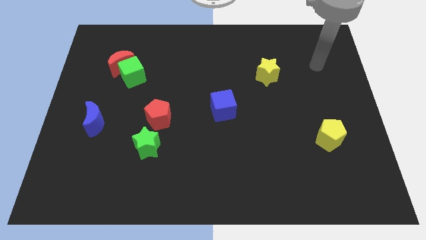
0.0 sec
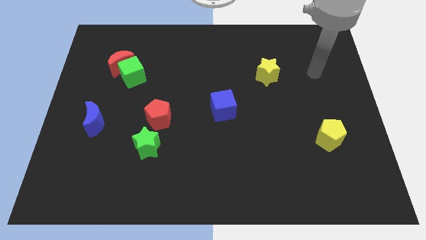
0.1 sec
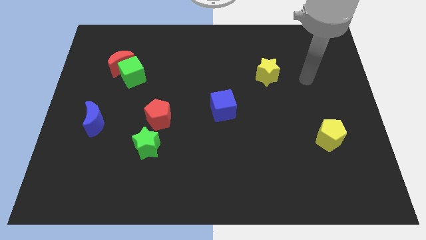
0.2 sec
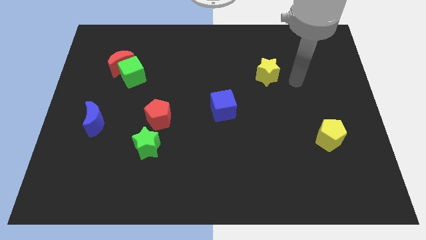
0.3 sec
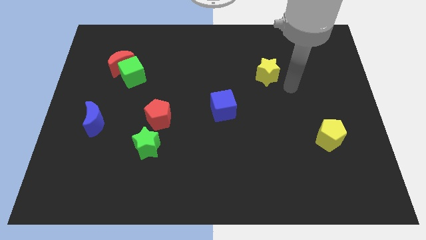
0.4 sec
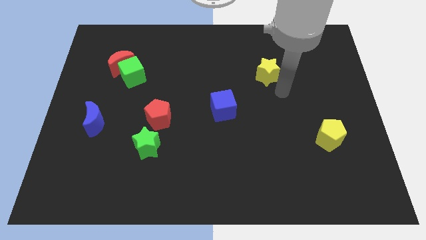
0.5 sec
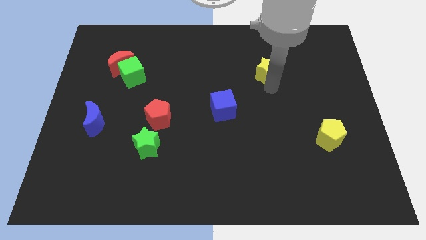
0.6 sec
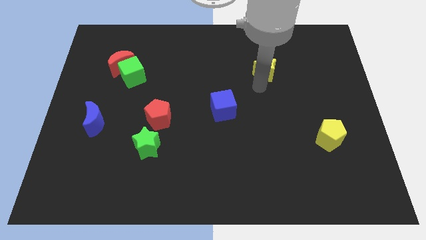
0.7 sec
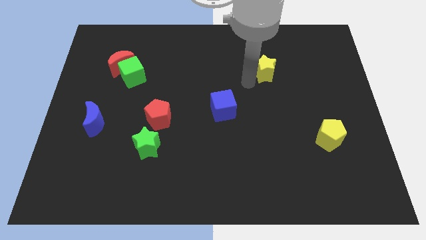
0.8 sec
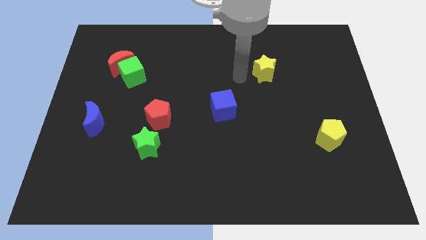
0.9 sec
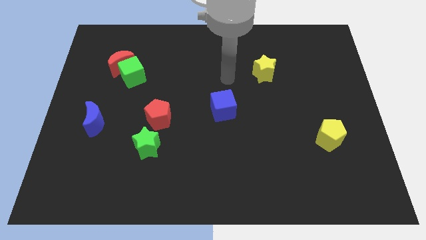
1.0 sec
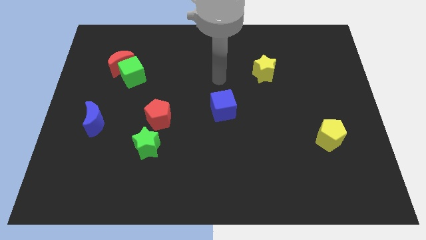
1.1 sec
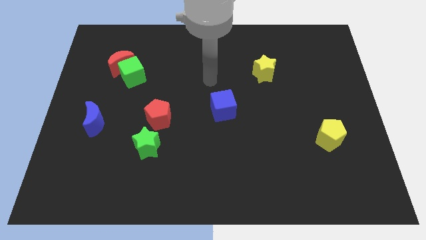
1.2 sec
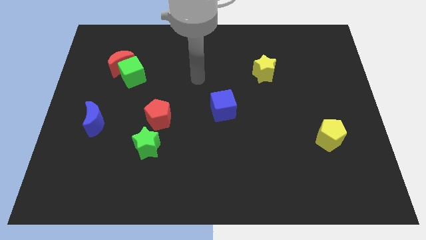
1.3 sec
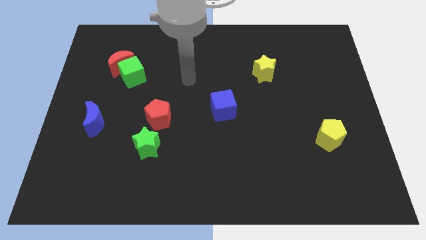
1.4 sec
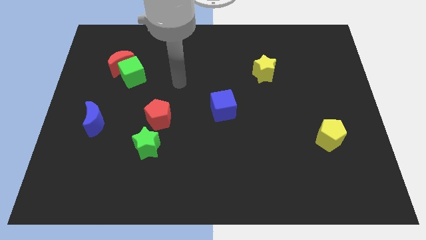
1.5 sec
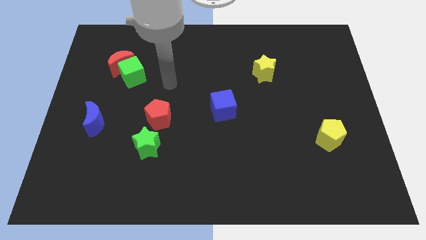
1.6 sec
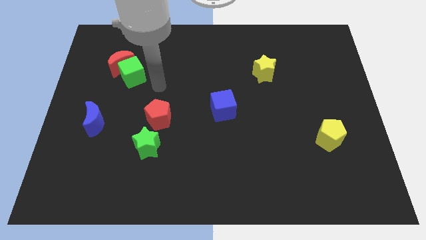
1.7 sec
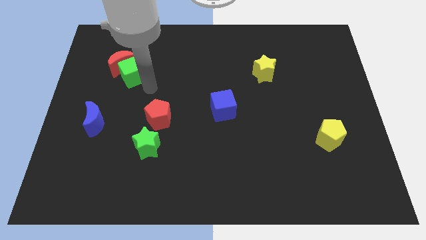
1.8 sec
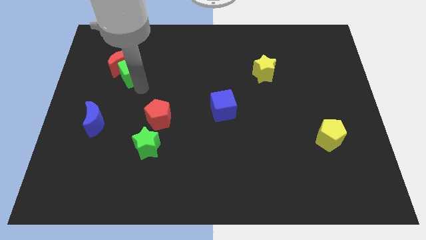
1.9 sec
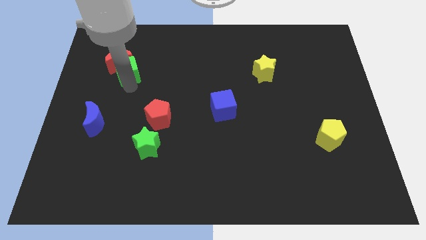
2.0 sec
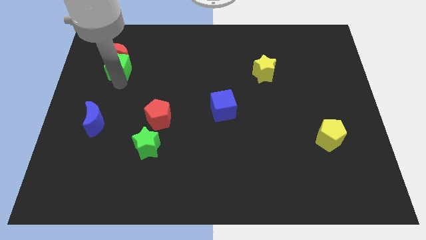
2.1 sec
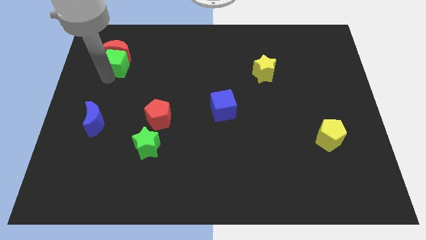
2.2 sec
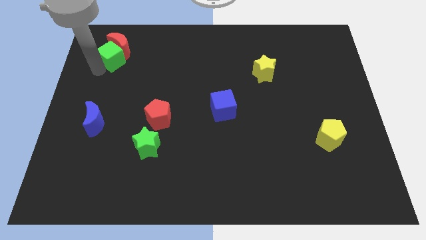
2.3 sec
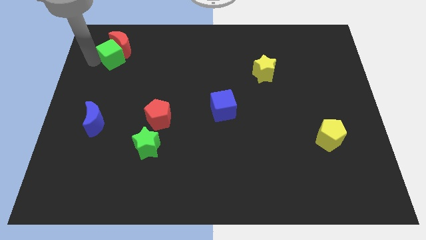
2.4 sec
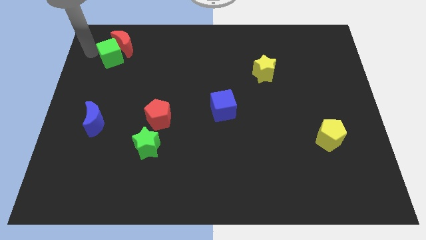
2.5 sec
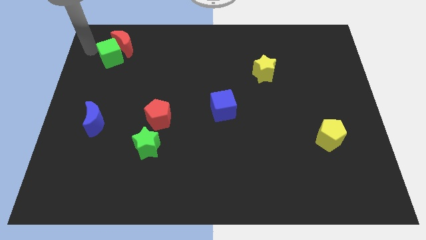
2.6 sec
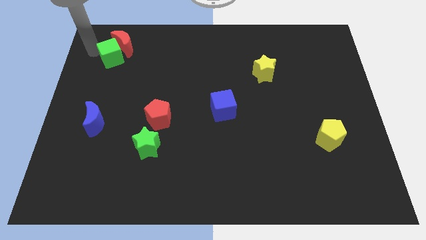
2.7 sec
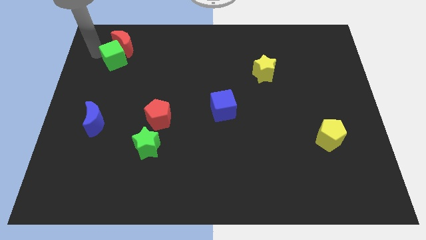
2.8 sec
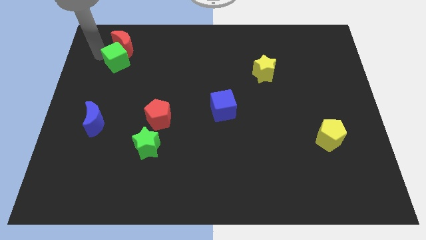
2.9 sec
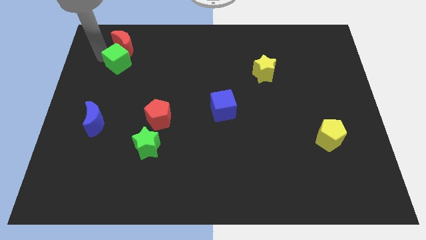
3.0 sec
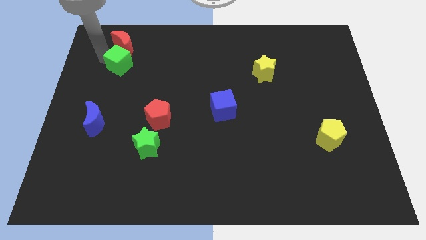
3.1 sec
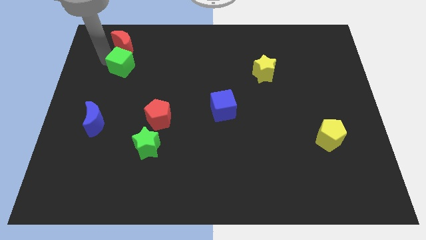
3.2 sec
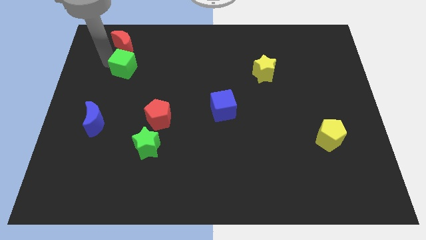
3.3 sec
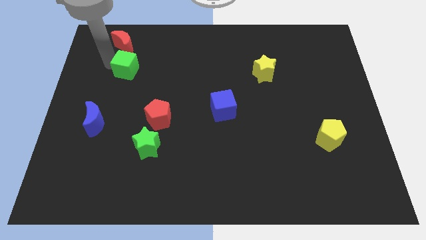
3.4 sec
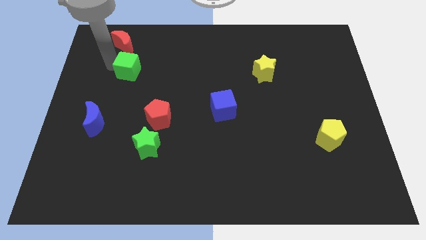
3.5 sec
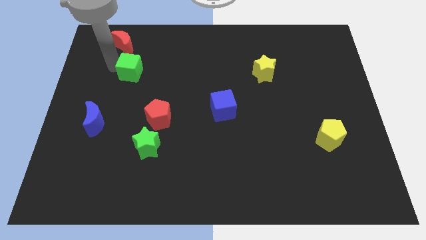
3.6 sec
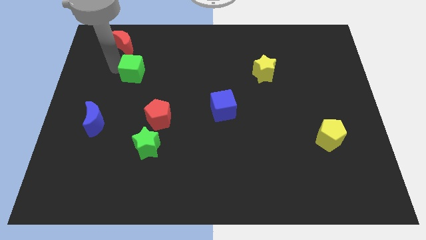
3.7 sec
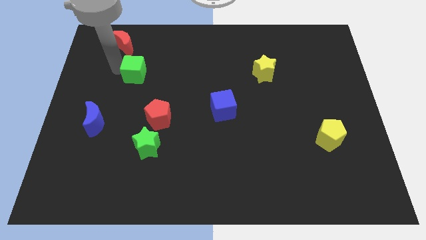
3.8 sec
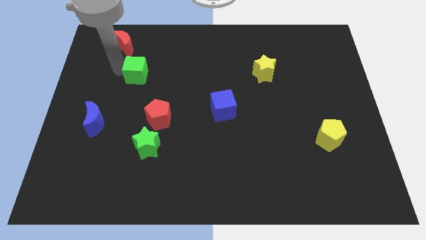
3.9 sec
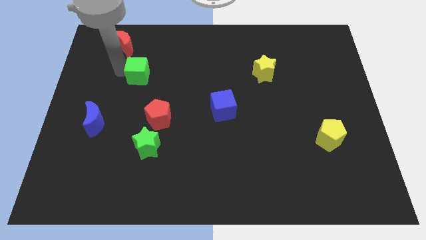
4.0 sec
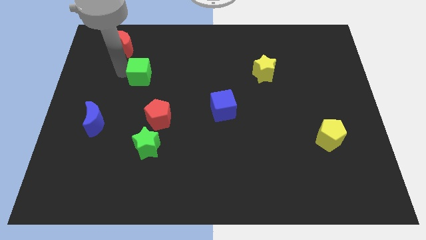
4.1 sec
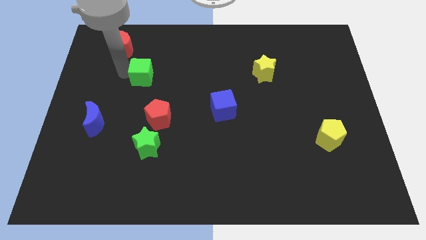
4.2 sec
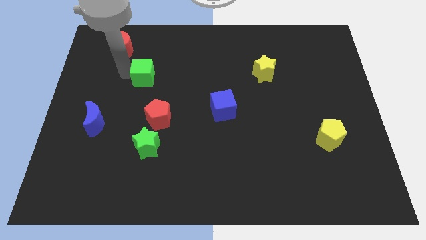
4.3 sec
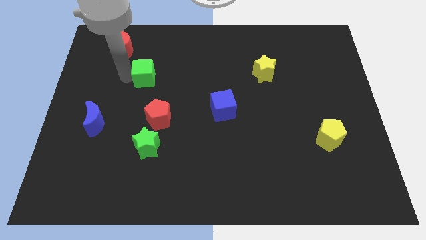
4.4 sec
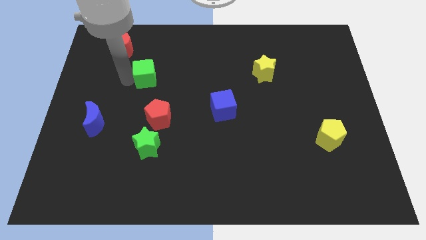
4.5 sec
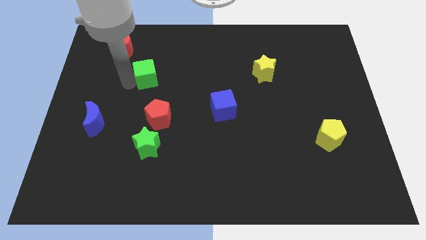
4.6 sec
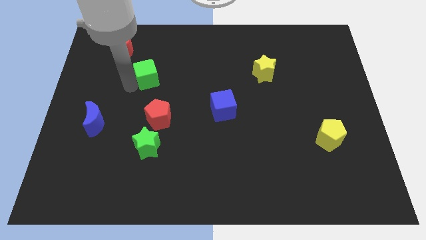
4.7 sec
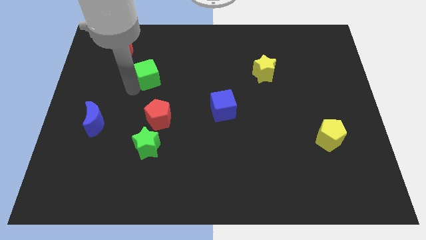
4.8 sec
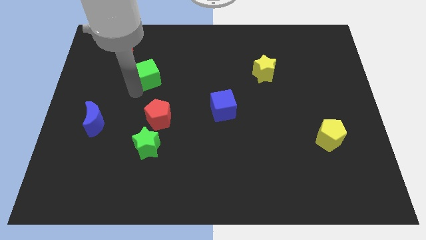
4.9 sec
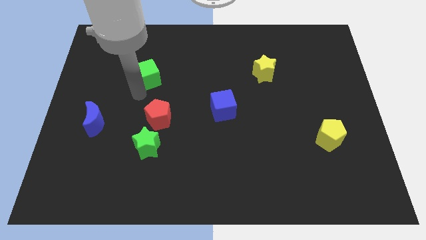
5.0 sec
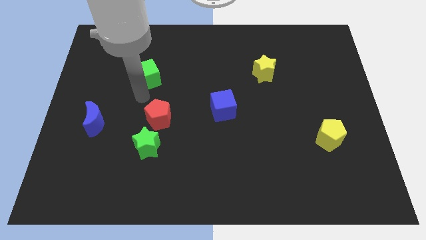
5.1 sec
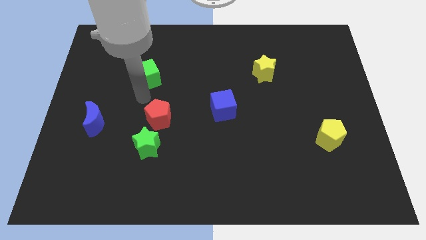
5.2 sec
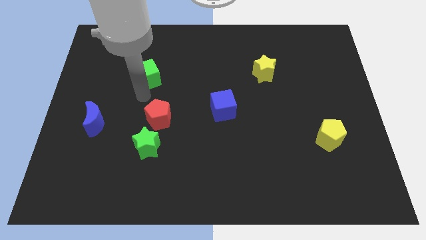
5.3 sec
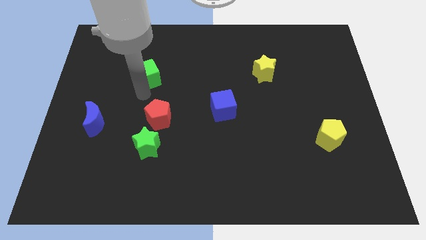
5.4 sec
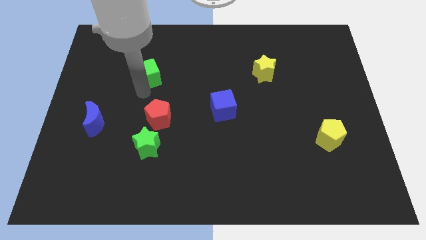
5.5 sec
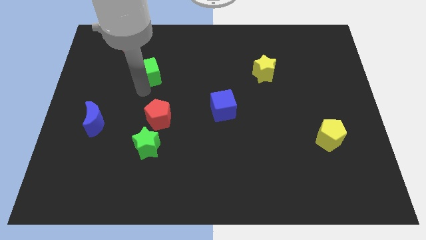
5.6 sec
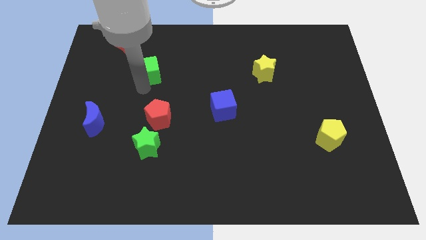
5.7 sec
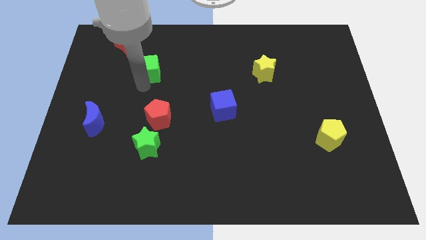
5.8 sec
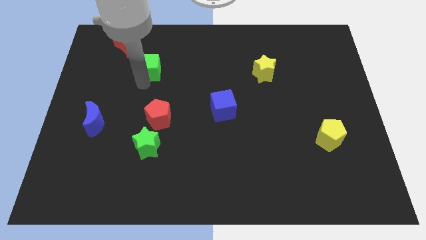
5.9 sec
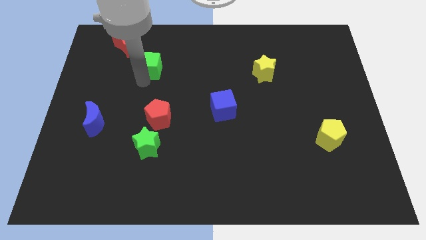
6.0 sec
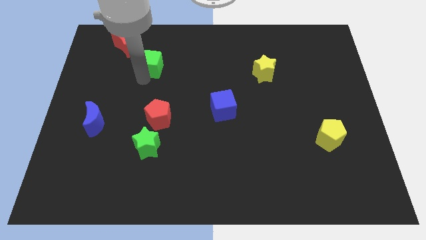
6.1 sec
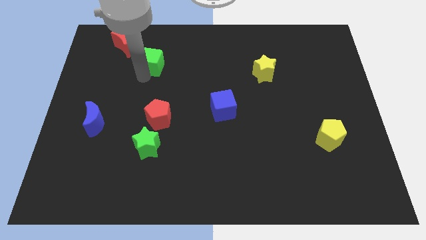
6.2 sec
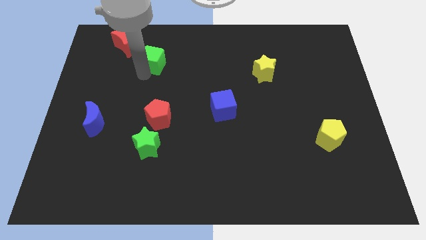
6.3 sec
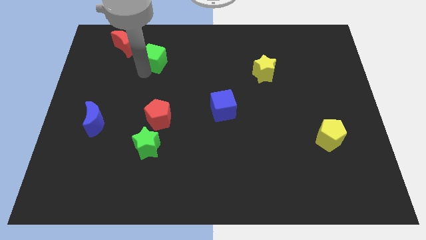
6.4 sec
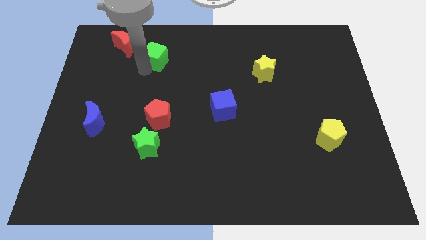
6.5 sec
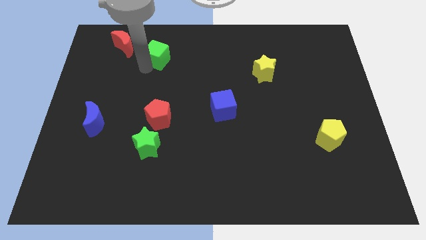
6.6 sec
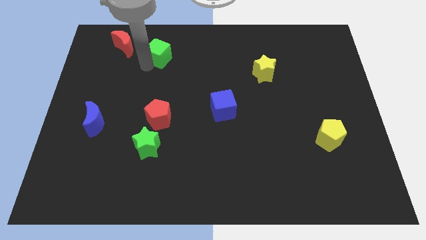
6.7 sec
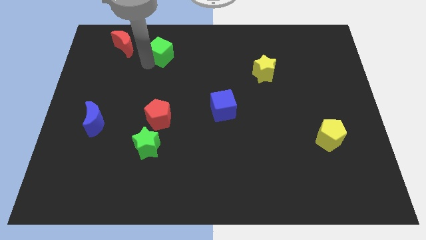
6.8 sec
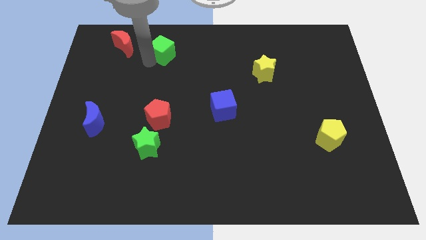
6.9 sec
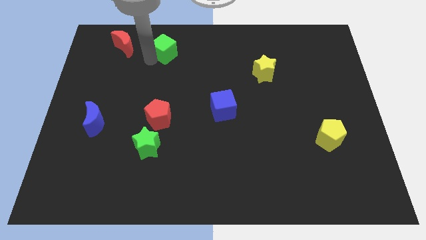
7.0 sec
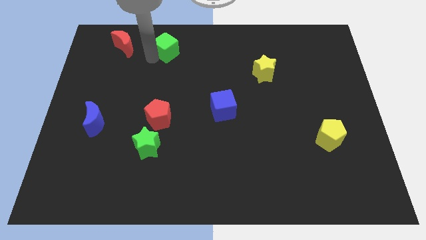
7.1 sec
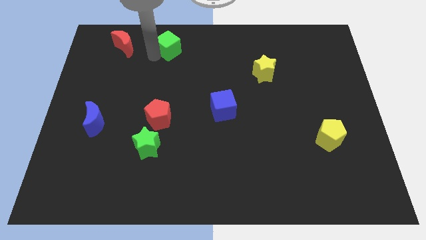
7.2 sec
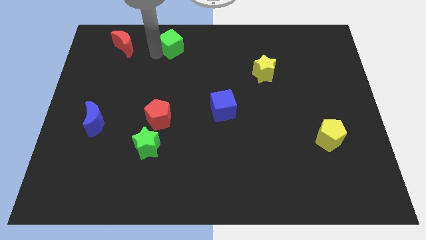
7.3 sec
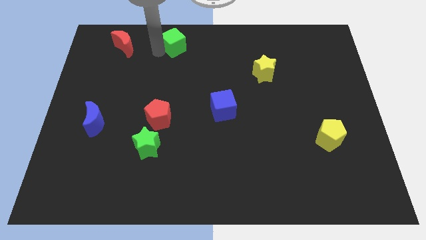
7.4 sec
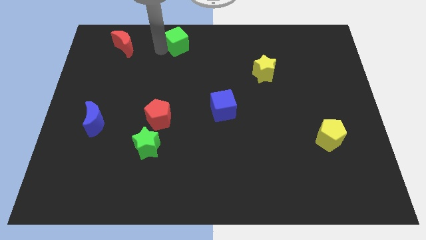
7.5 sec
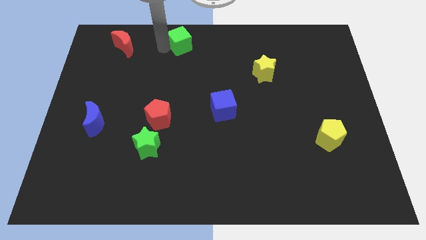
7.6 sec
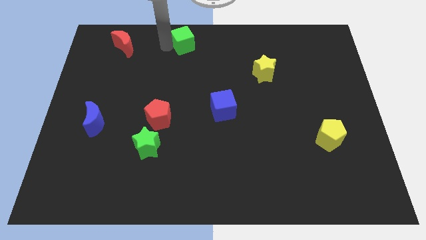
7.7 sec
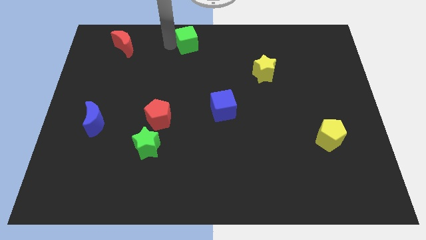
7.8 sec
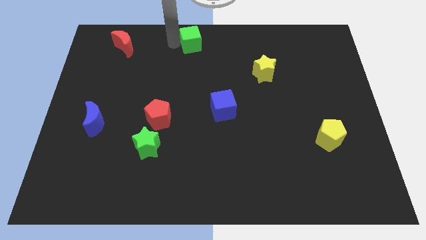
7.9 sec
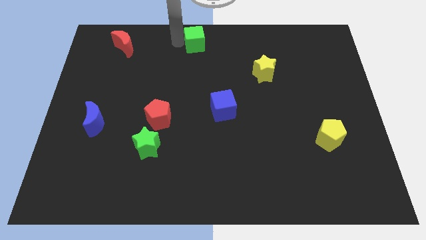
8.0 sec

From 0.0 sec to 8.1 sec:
slightly slide the green cube right
